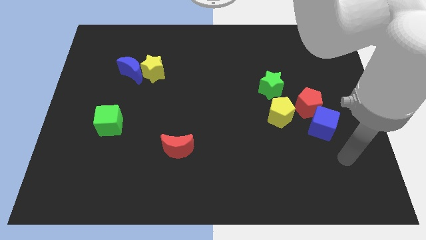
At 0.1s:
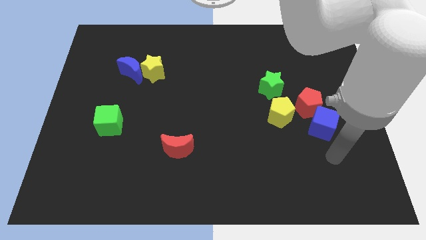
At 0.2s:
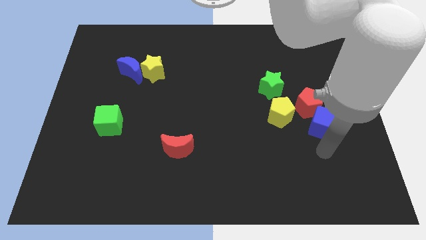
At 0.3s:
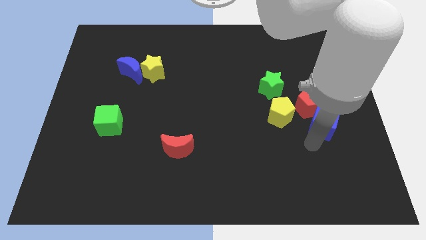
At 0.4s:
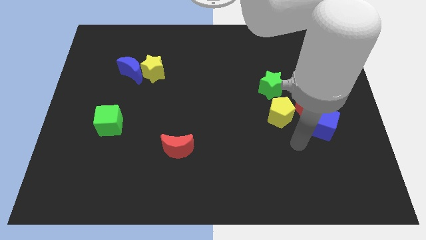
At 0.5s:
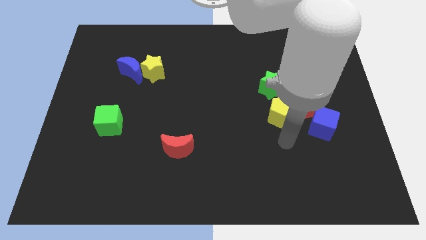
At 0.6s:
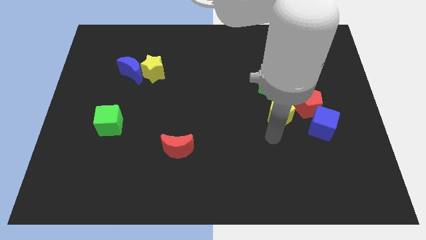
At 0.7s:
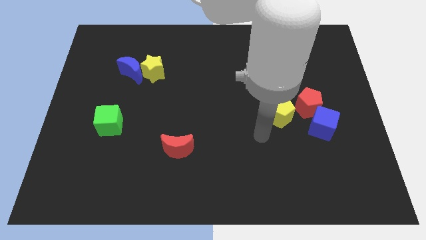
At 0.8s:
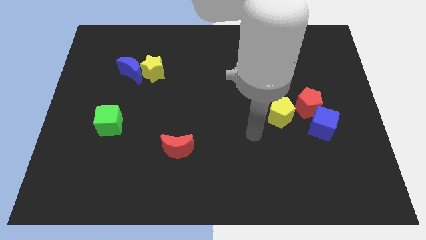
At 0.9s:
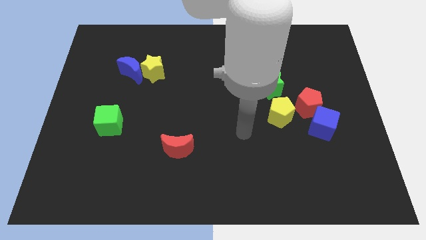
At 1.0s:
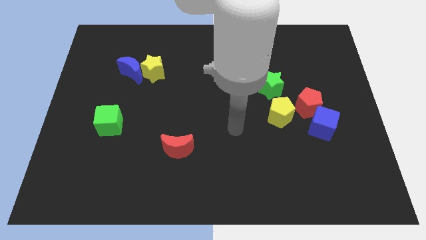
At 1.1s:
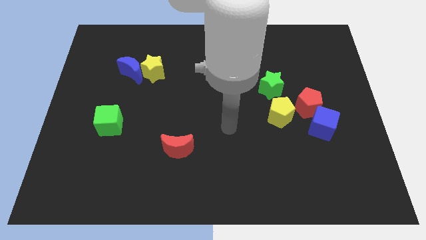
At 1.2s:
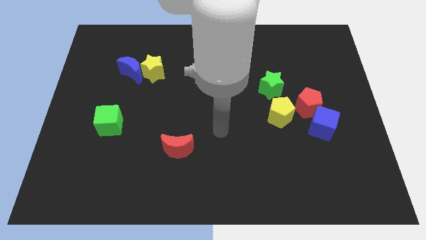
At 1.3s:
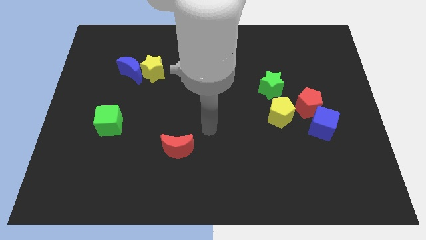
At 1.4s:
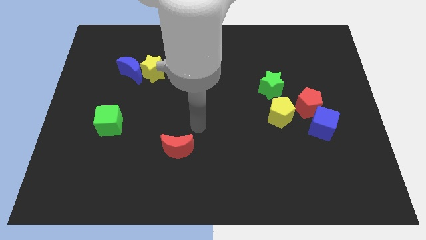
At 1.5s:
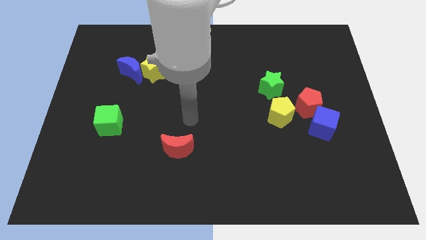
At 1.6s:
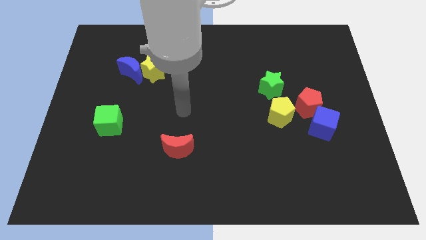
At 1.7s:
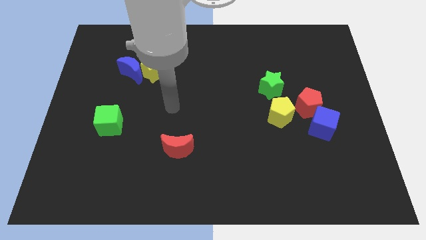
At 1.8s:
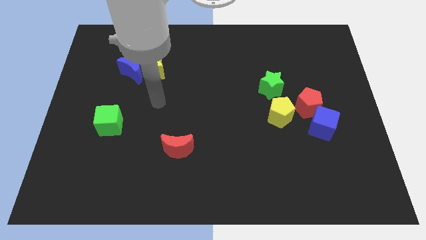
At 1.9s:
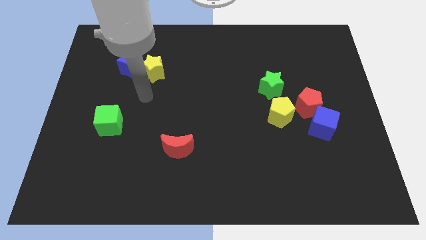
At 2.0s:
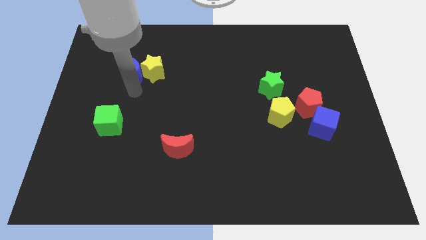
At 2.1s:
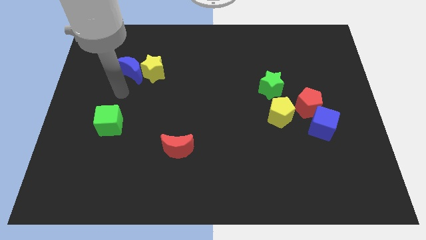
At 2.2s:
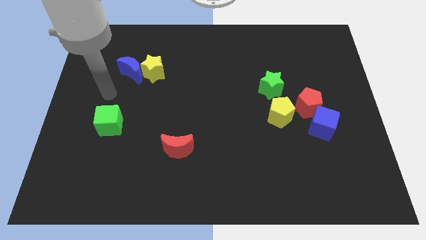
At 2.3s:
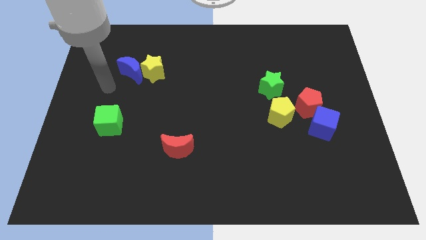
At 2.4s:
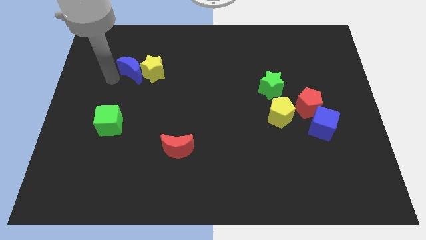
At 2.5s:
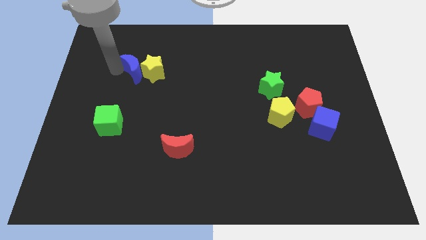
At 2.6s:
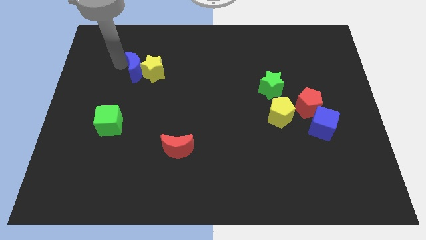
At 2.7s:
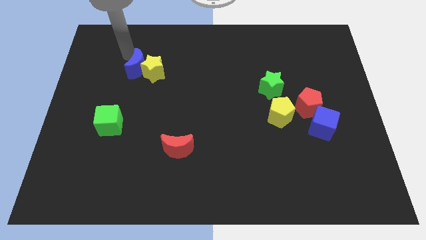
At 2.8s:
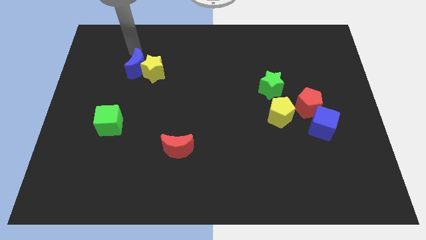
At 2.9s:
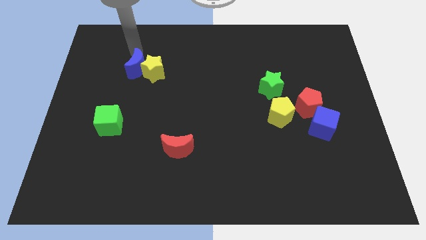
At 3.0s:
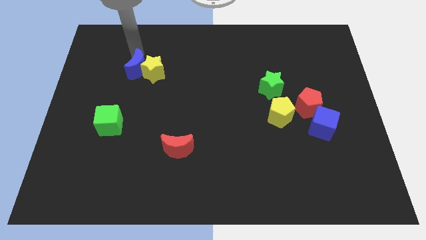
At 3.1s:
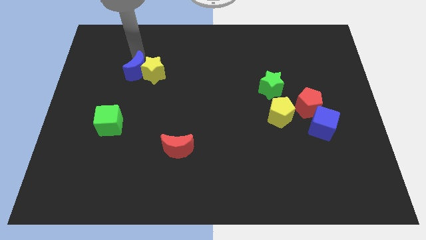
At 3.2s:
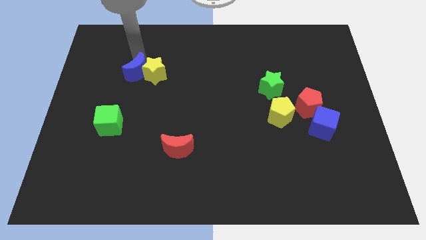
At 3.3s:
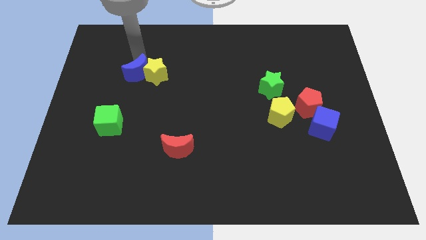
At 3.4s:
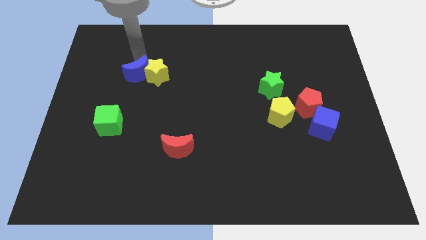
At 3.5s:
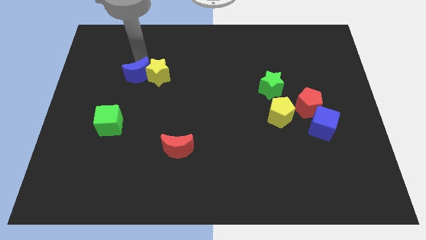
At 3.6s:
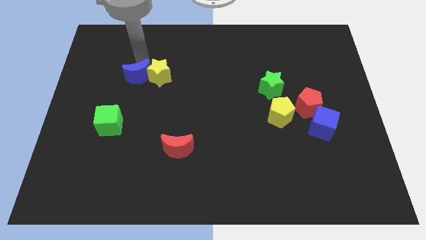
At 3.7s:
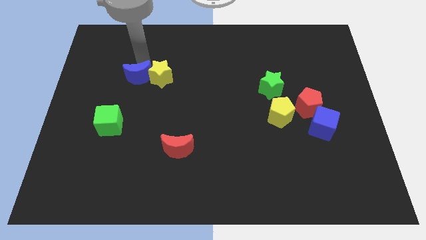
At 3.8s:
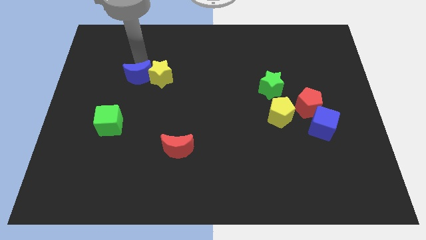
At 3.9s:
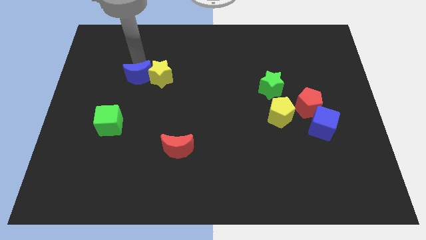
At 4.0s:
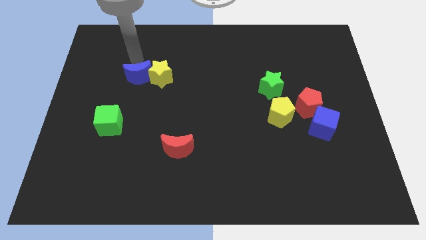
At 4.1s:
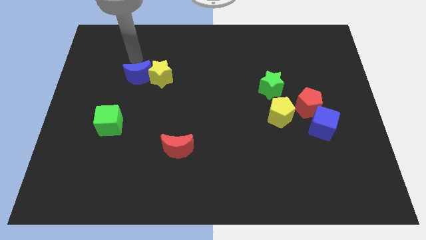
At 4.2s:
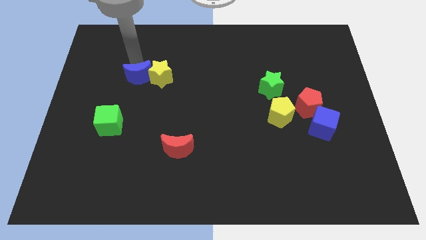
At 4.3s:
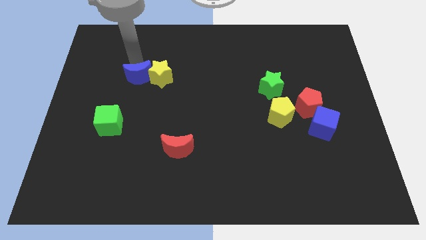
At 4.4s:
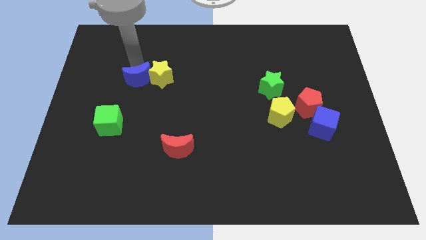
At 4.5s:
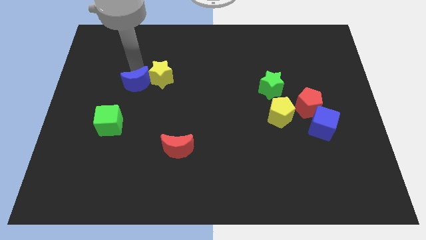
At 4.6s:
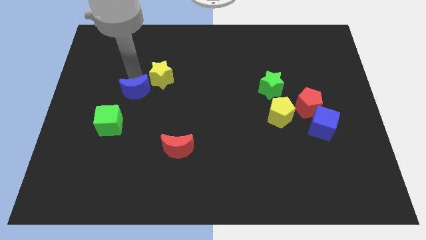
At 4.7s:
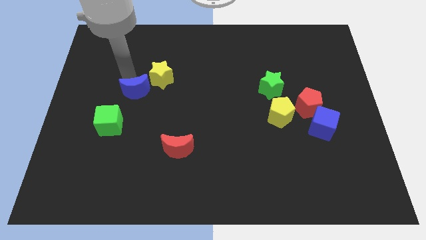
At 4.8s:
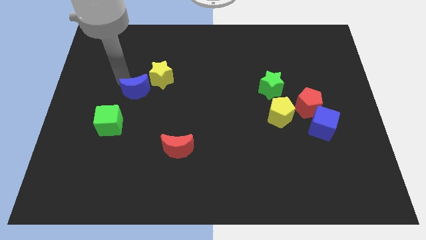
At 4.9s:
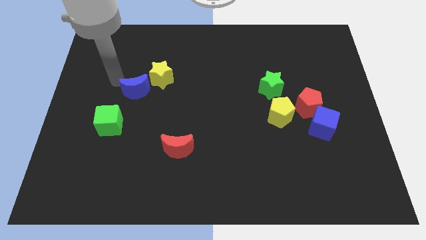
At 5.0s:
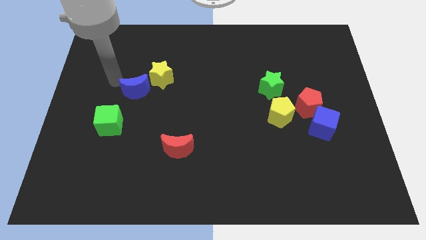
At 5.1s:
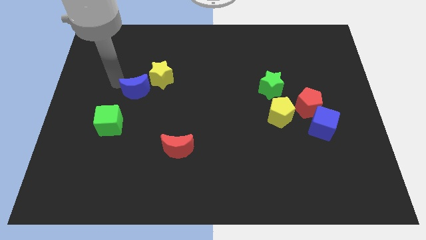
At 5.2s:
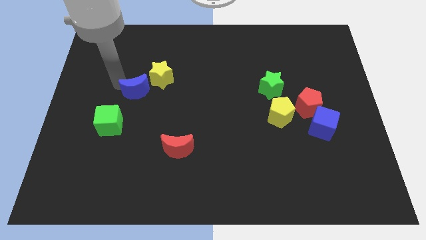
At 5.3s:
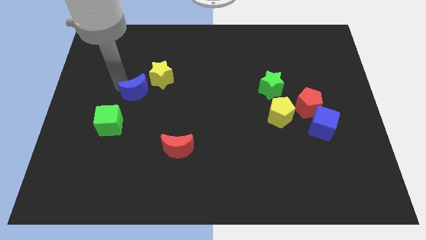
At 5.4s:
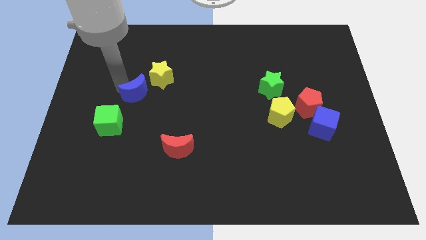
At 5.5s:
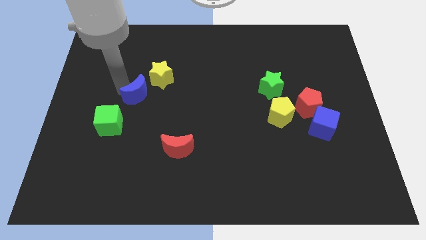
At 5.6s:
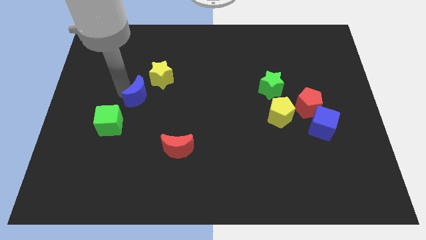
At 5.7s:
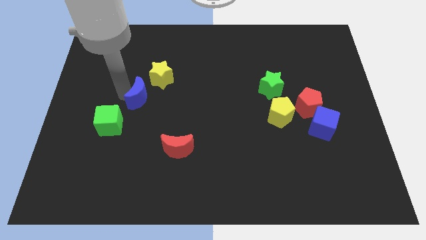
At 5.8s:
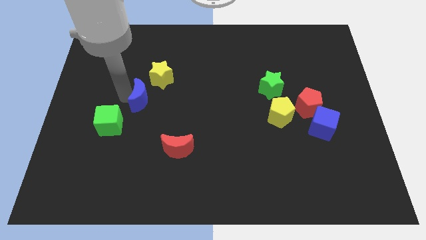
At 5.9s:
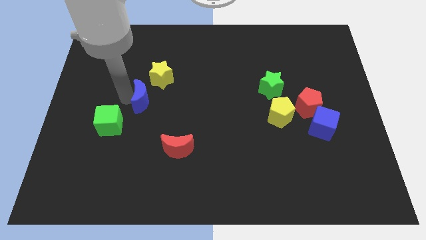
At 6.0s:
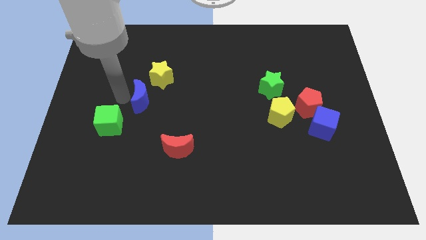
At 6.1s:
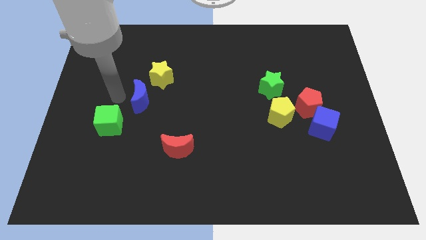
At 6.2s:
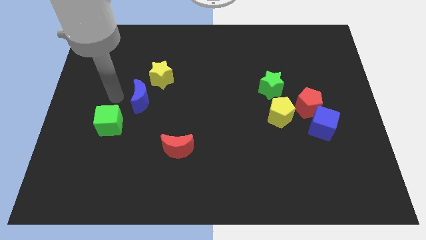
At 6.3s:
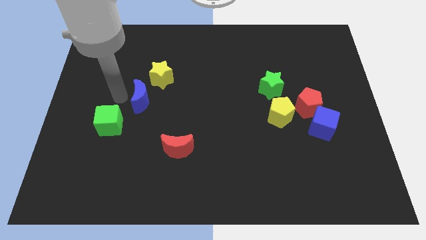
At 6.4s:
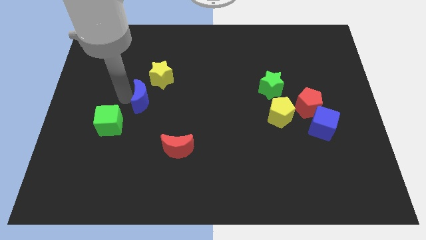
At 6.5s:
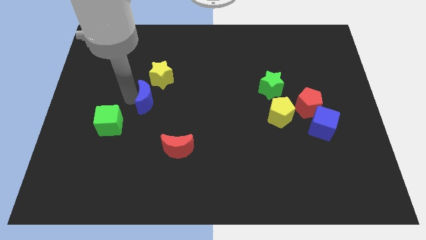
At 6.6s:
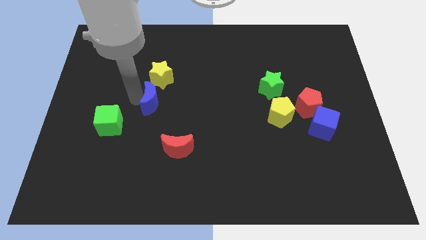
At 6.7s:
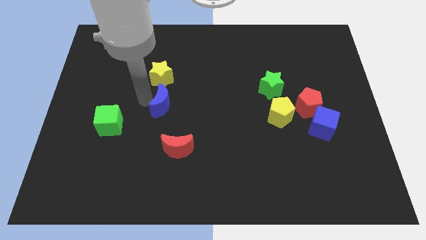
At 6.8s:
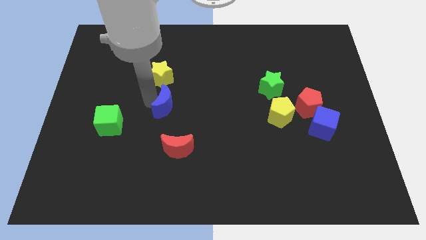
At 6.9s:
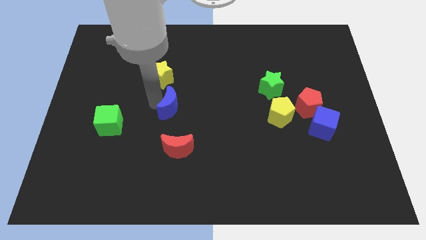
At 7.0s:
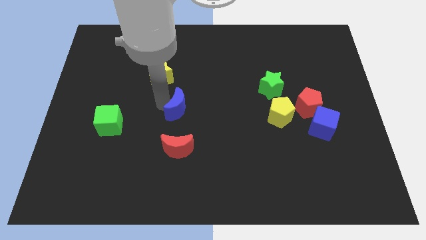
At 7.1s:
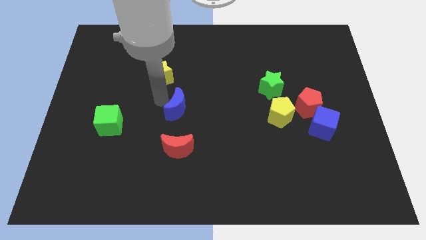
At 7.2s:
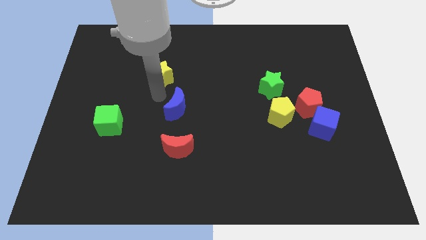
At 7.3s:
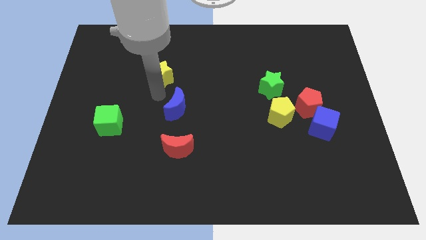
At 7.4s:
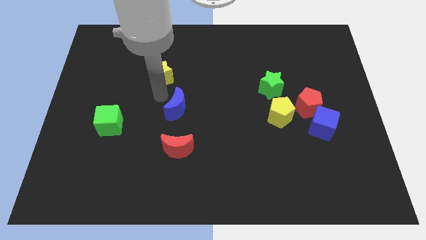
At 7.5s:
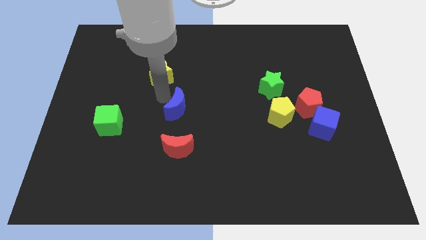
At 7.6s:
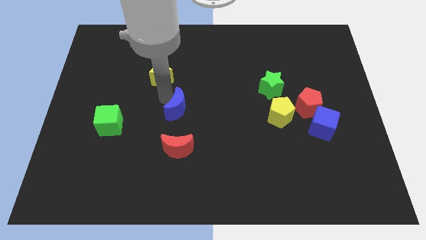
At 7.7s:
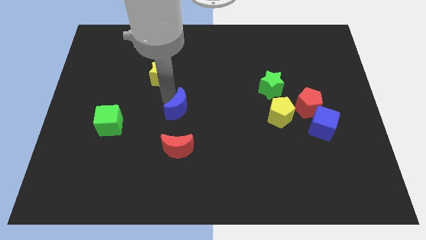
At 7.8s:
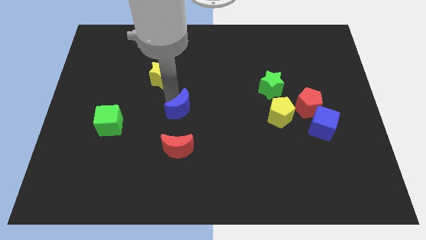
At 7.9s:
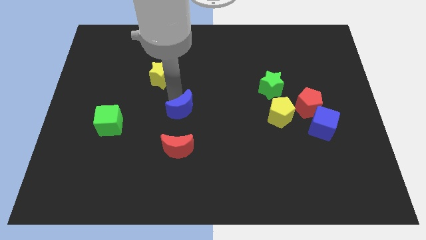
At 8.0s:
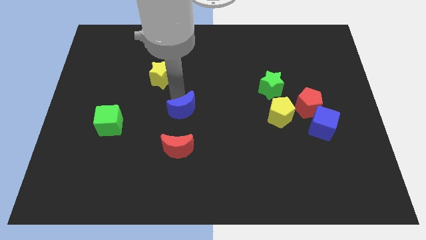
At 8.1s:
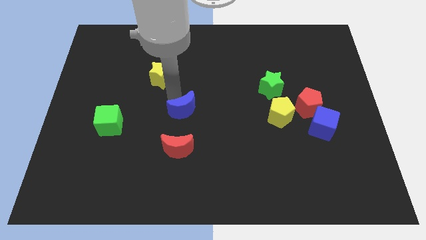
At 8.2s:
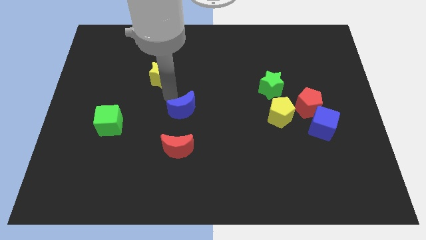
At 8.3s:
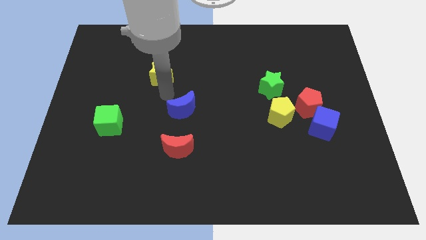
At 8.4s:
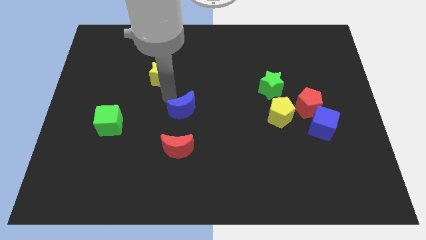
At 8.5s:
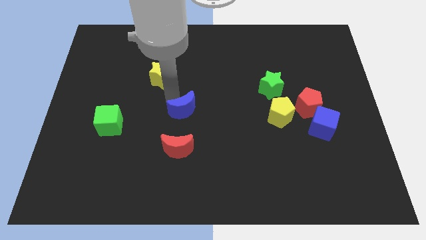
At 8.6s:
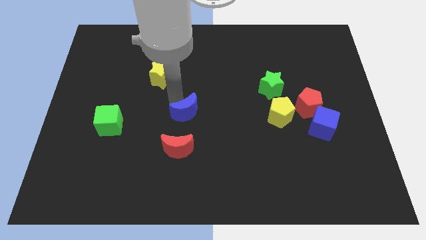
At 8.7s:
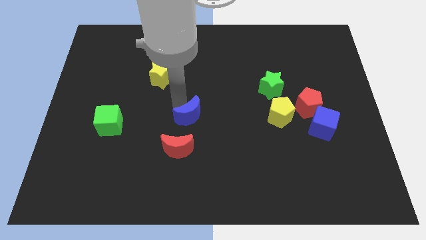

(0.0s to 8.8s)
push the blue moon downwards and right diagonally
